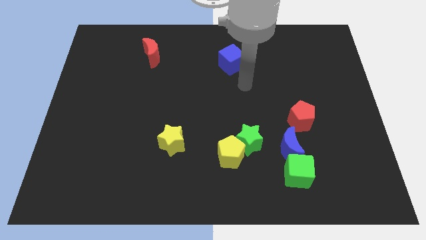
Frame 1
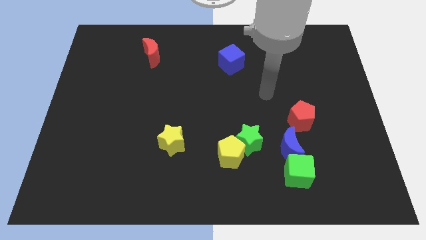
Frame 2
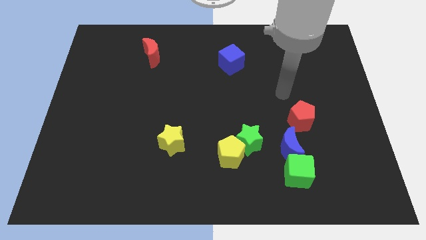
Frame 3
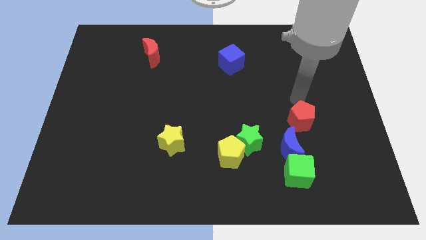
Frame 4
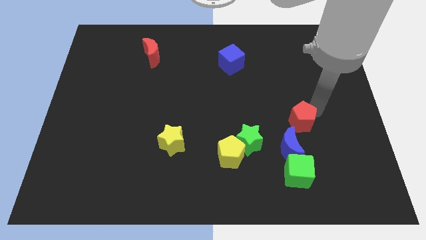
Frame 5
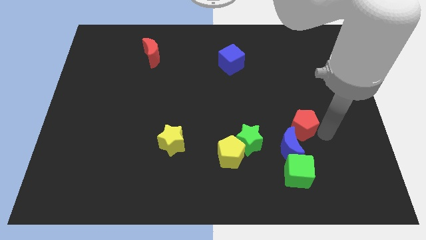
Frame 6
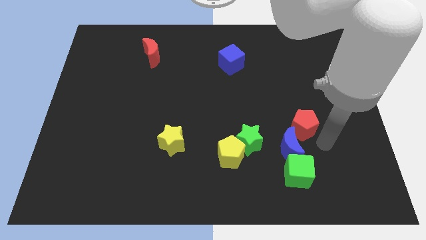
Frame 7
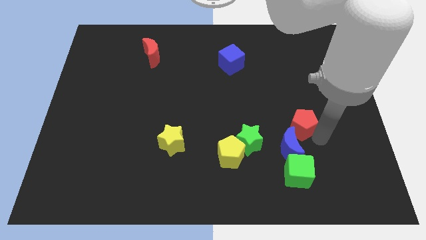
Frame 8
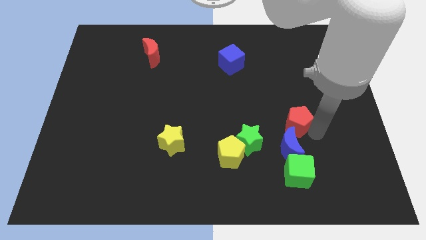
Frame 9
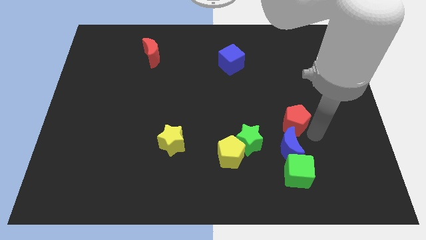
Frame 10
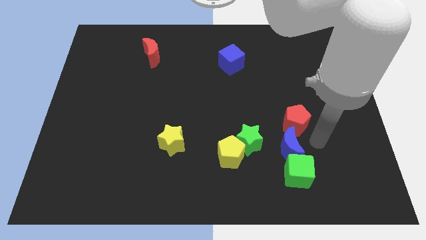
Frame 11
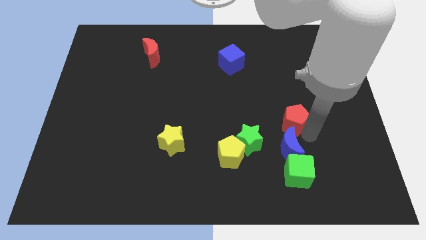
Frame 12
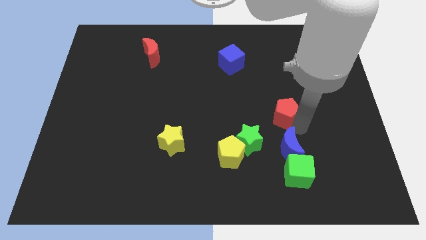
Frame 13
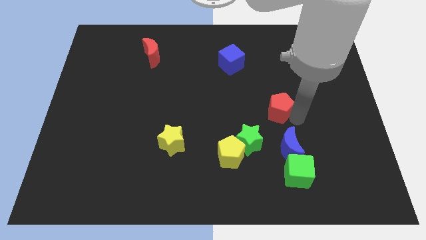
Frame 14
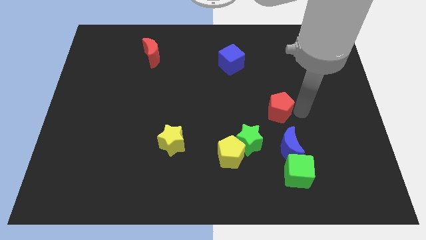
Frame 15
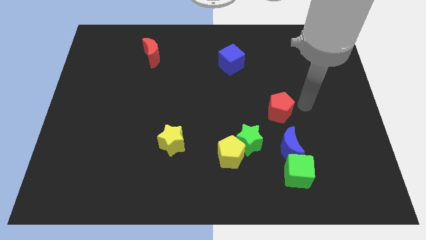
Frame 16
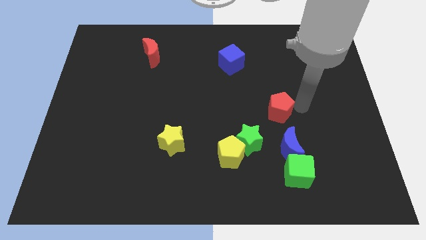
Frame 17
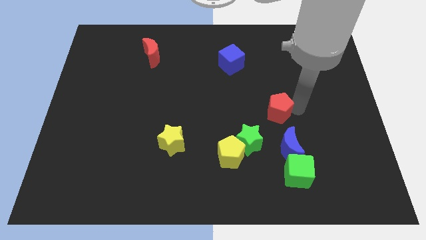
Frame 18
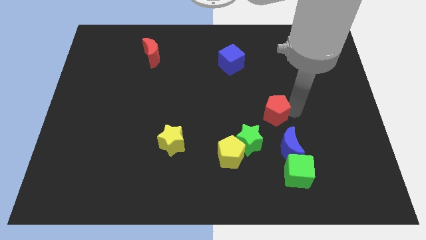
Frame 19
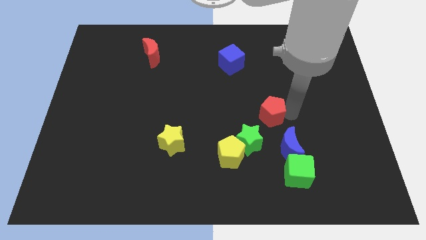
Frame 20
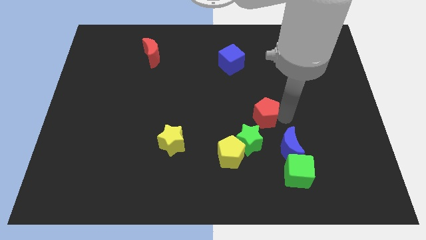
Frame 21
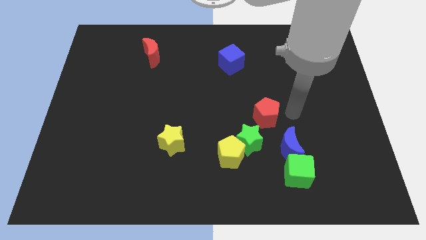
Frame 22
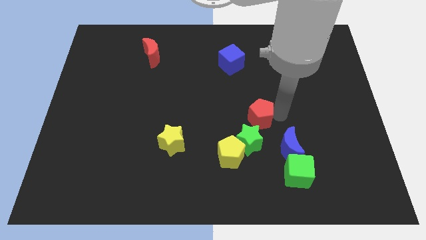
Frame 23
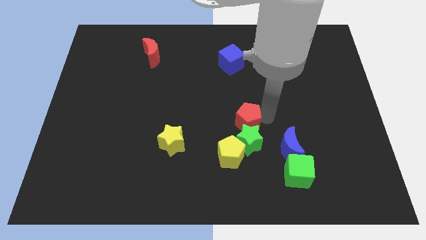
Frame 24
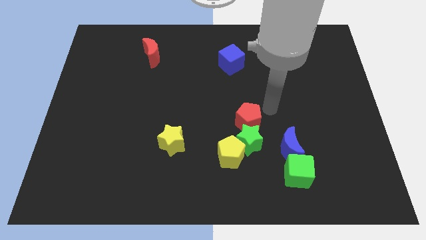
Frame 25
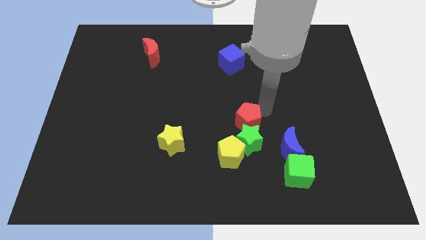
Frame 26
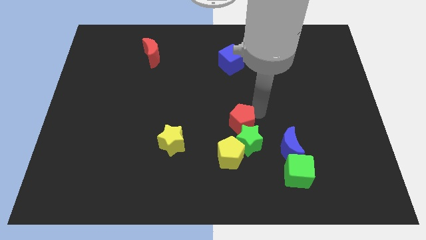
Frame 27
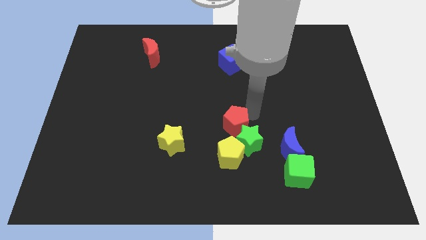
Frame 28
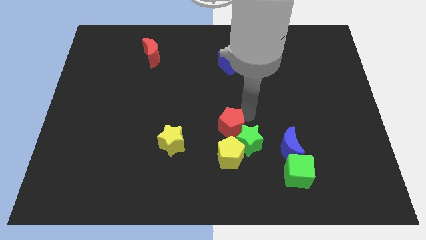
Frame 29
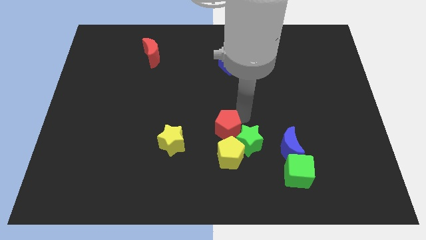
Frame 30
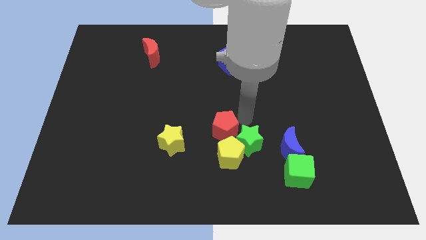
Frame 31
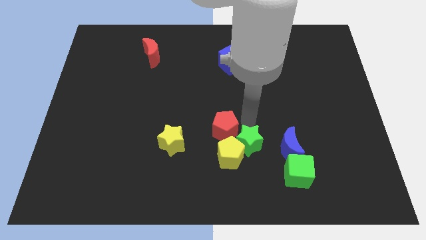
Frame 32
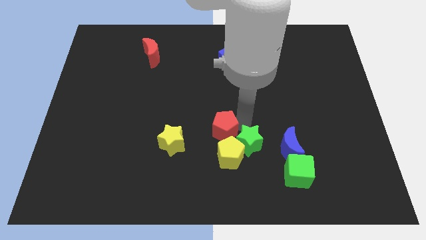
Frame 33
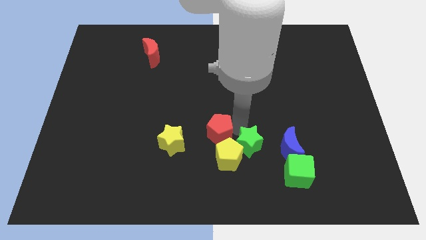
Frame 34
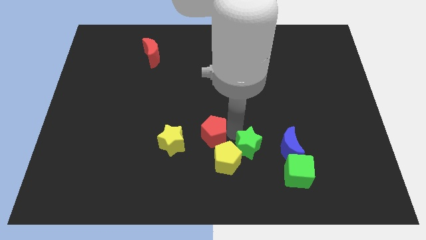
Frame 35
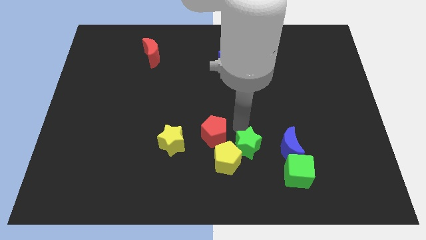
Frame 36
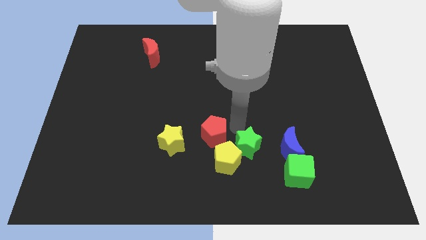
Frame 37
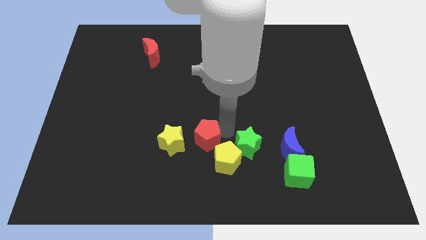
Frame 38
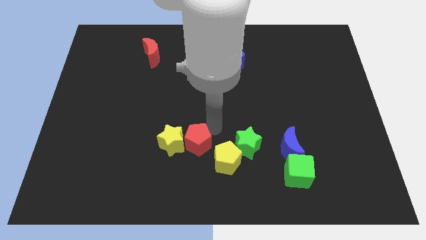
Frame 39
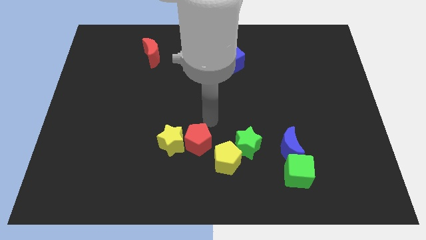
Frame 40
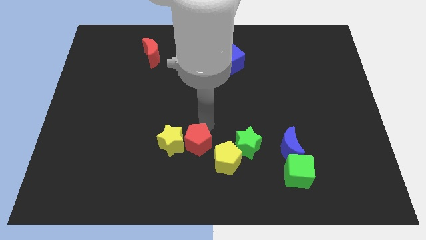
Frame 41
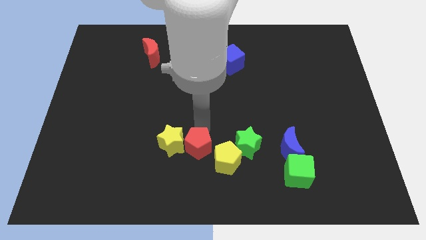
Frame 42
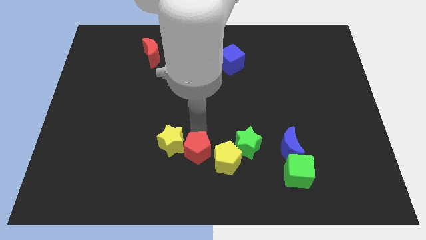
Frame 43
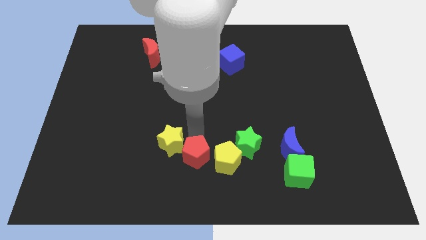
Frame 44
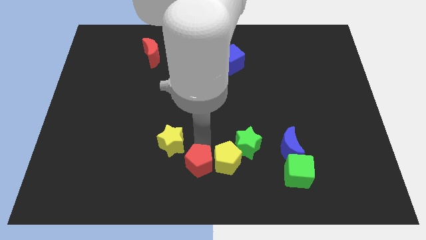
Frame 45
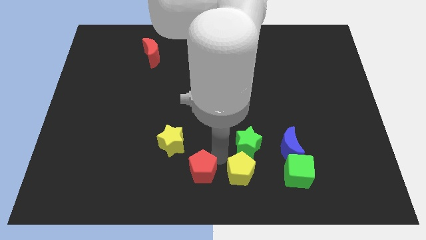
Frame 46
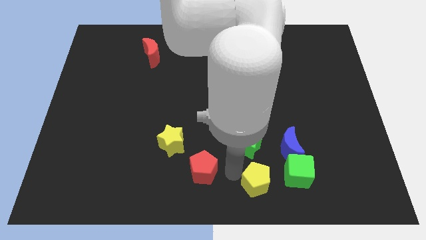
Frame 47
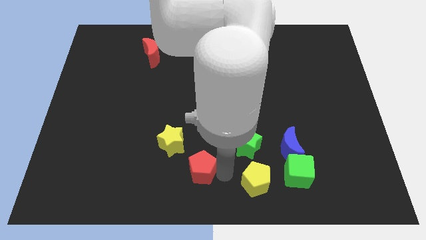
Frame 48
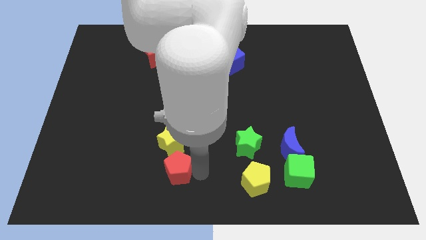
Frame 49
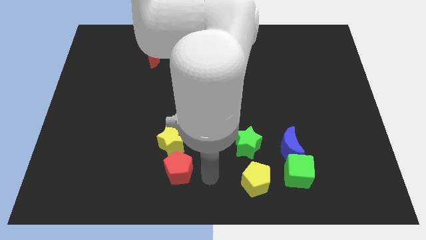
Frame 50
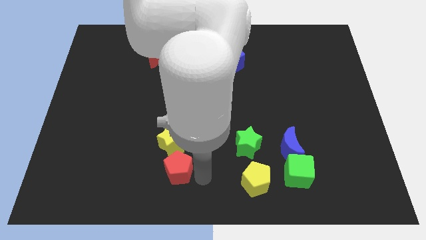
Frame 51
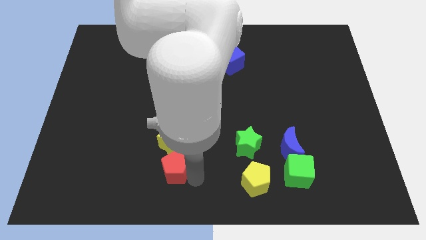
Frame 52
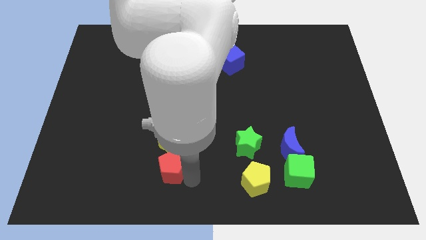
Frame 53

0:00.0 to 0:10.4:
move the red pentagon to the bottom left side of the yellow star

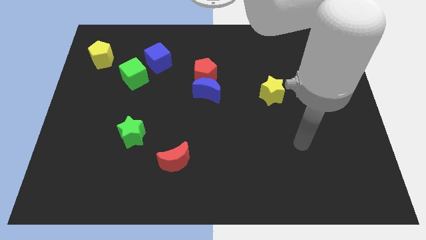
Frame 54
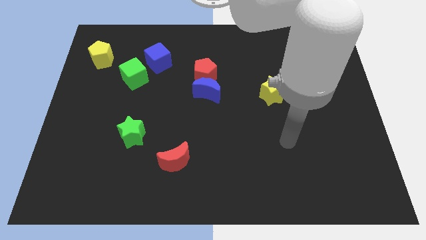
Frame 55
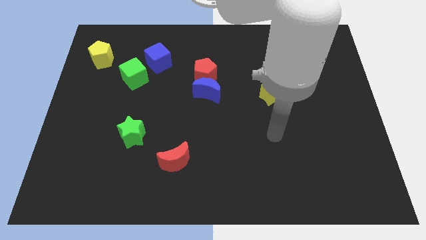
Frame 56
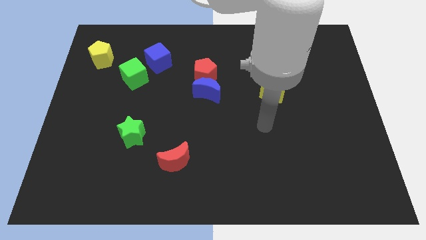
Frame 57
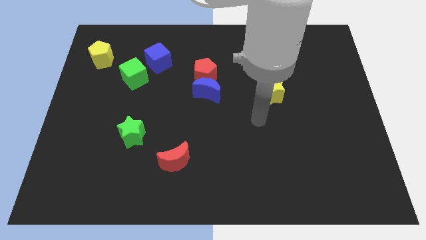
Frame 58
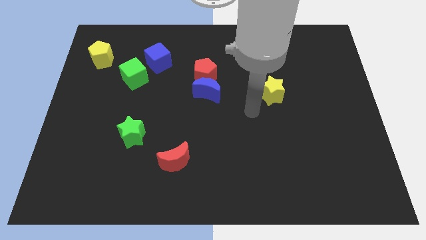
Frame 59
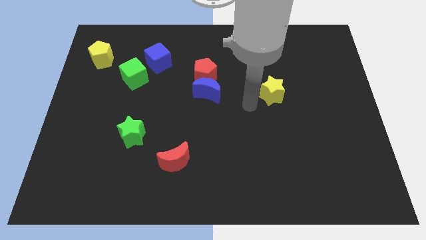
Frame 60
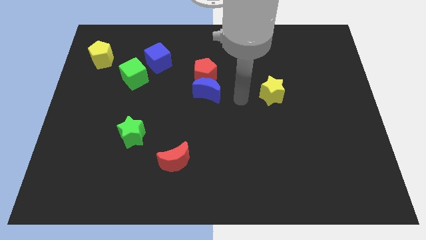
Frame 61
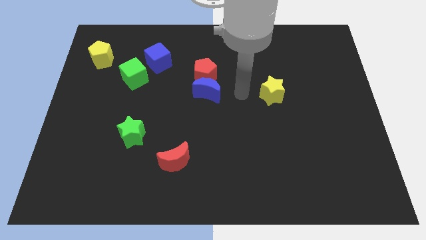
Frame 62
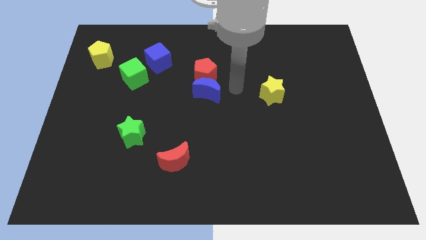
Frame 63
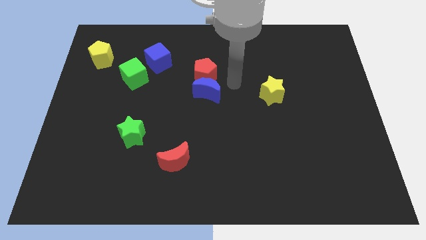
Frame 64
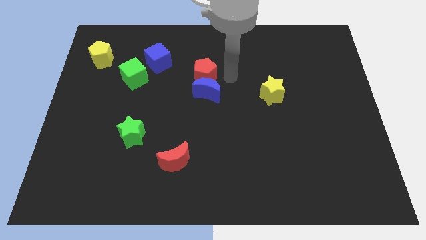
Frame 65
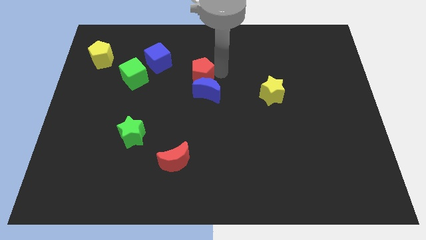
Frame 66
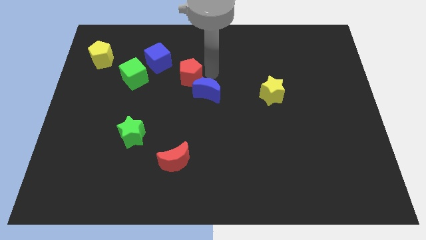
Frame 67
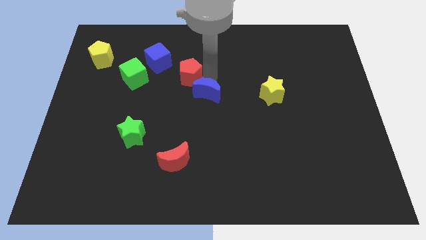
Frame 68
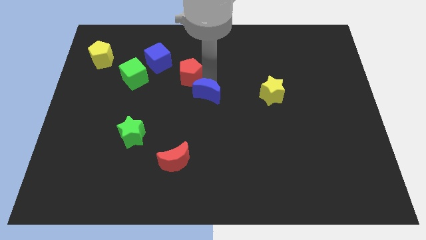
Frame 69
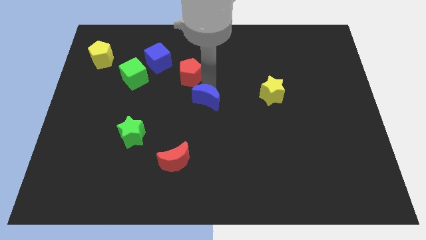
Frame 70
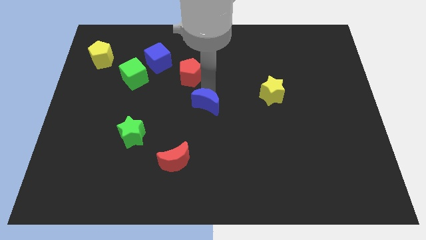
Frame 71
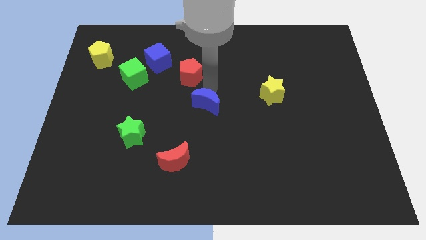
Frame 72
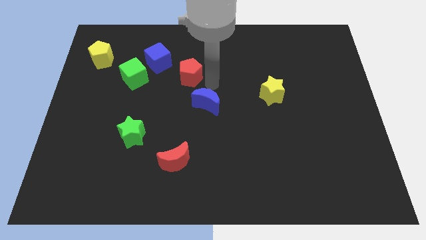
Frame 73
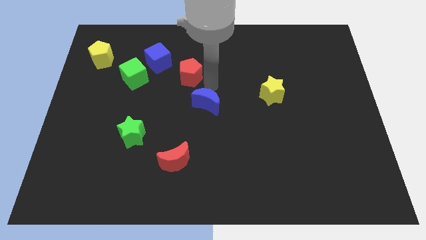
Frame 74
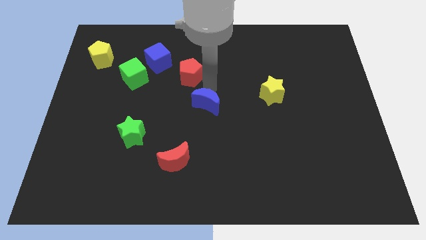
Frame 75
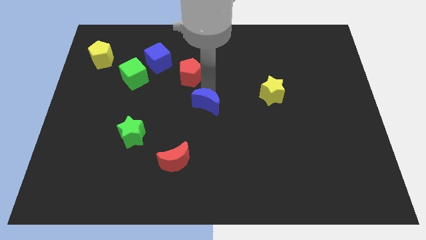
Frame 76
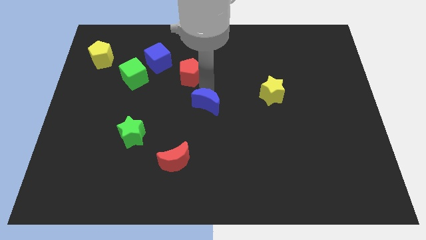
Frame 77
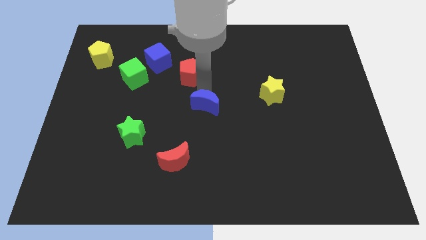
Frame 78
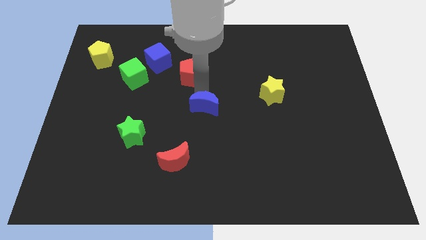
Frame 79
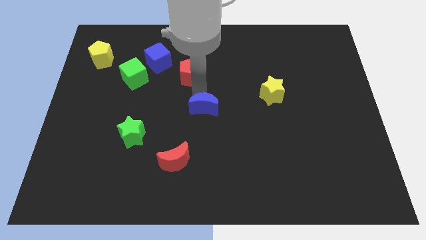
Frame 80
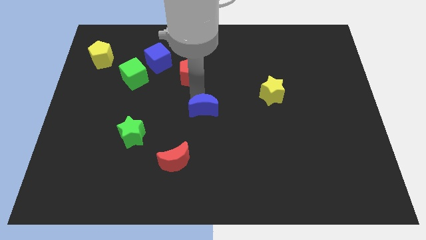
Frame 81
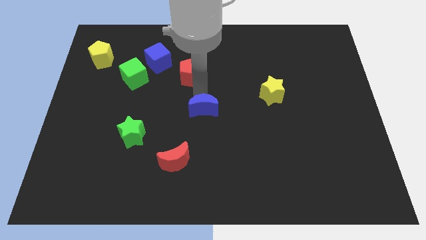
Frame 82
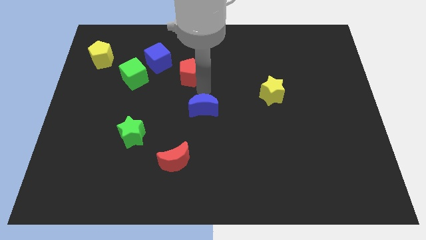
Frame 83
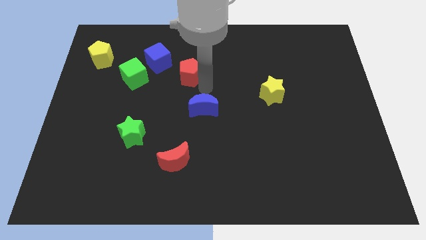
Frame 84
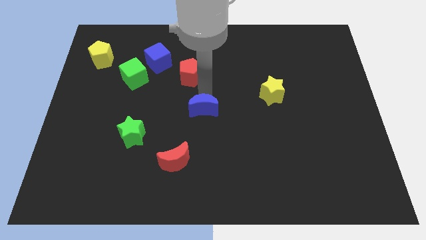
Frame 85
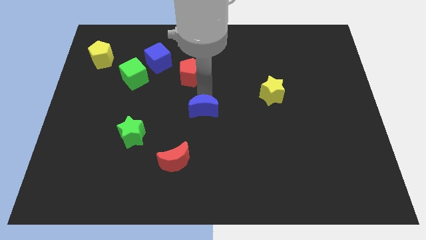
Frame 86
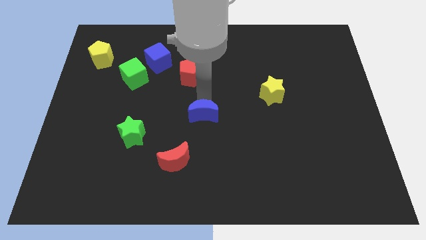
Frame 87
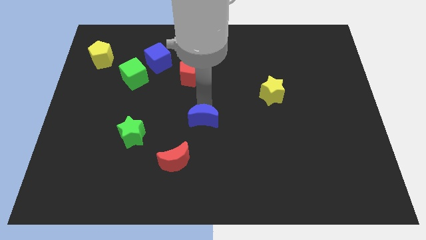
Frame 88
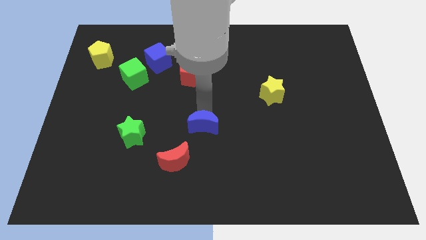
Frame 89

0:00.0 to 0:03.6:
push the blue moon to the top right of the red moon
